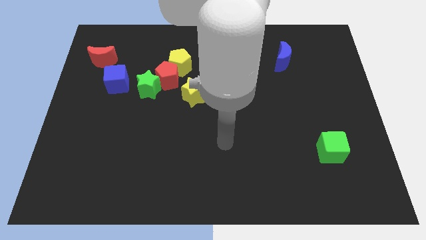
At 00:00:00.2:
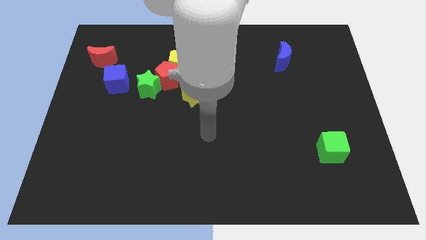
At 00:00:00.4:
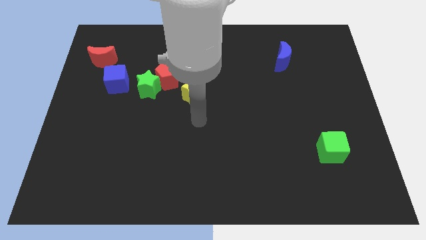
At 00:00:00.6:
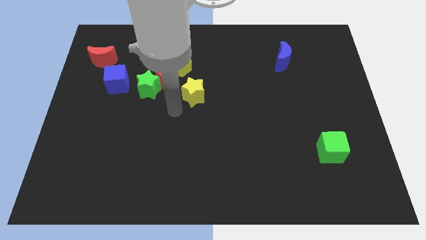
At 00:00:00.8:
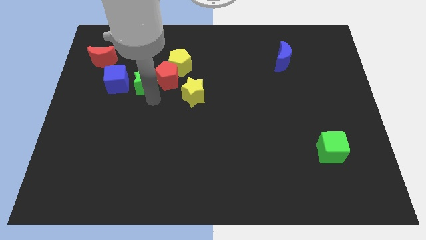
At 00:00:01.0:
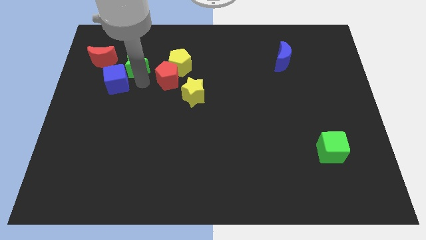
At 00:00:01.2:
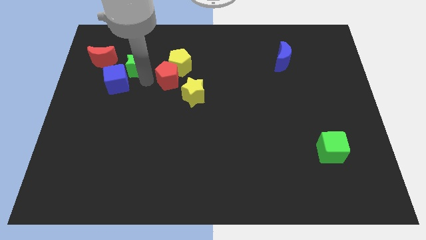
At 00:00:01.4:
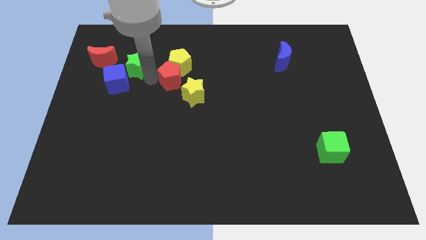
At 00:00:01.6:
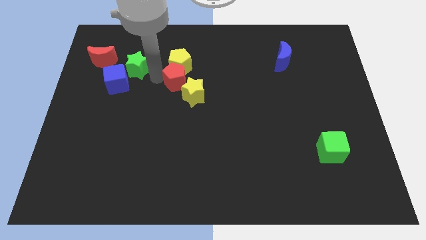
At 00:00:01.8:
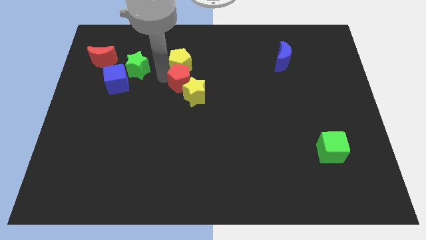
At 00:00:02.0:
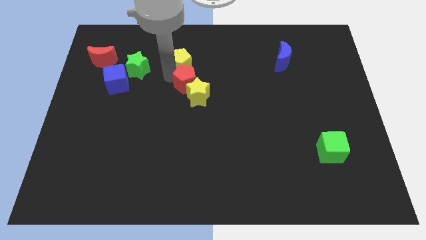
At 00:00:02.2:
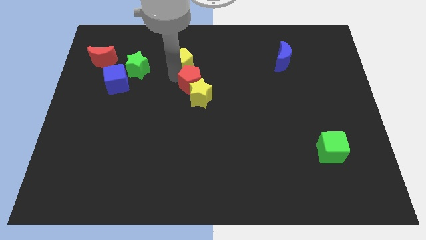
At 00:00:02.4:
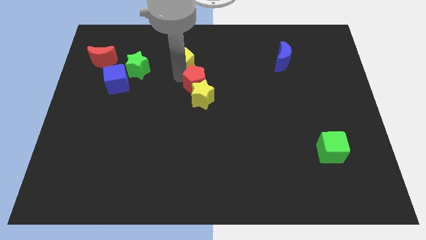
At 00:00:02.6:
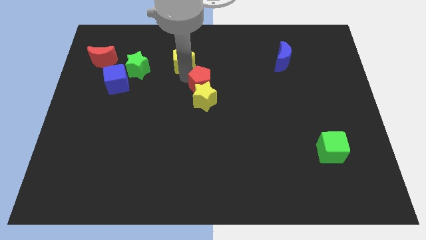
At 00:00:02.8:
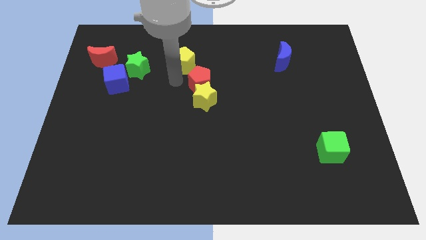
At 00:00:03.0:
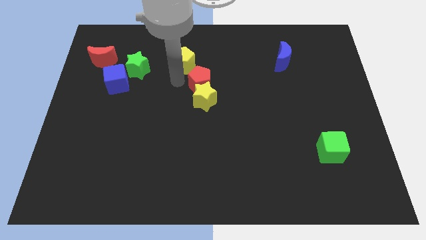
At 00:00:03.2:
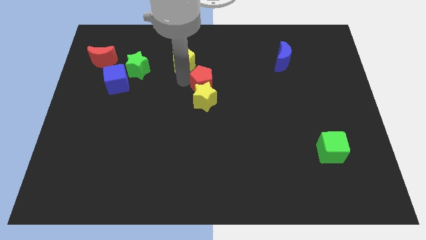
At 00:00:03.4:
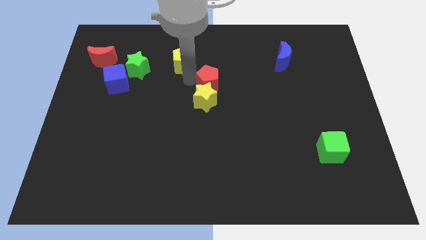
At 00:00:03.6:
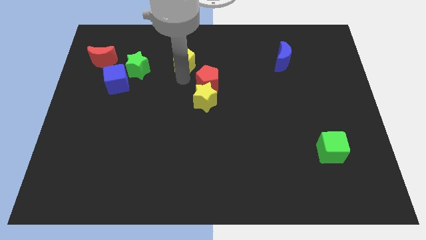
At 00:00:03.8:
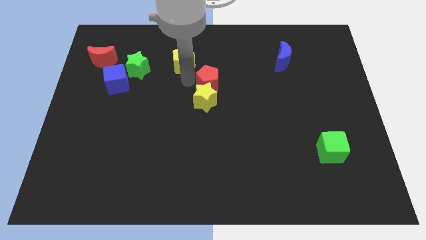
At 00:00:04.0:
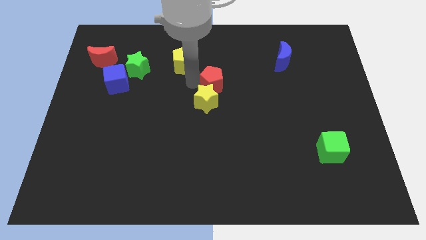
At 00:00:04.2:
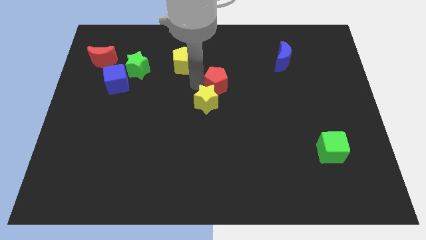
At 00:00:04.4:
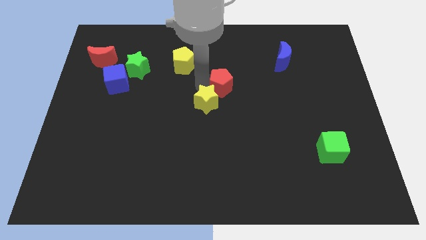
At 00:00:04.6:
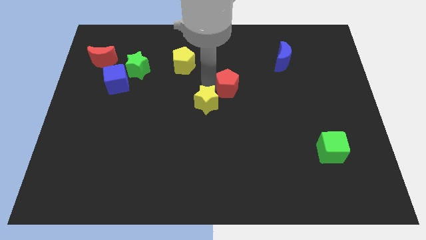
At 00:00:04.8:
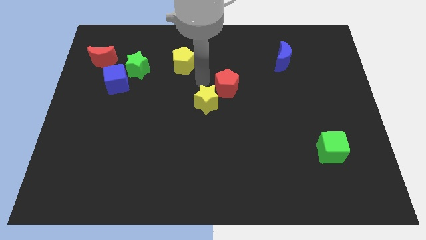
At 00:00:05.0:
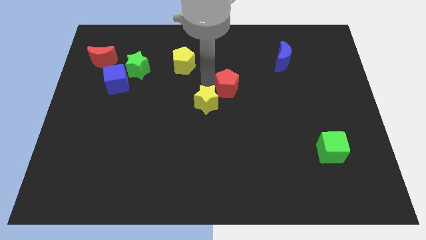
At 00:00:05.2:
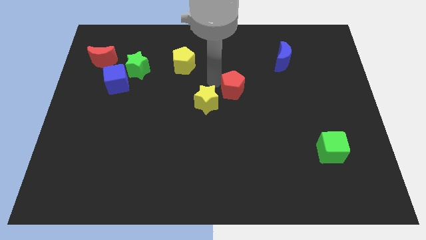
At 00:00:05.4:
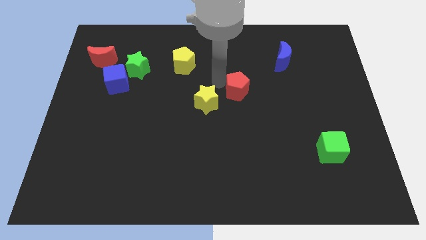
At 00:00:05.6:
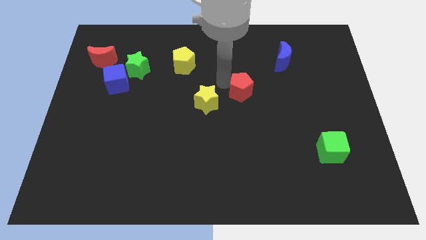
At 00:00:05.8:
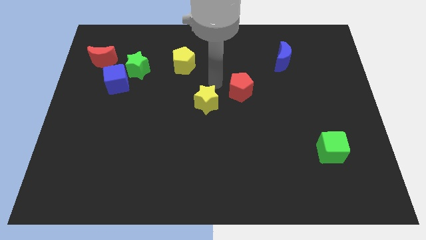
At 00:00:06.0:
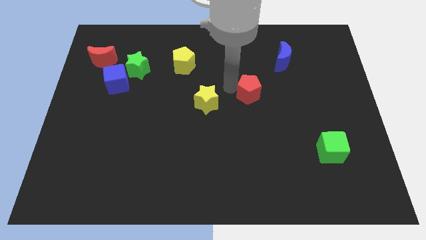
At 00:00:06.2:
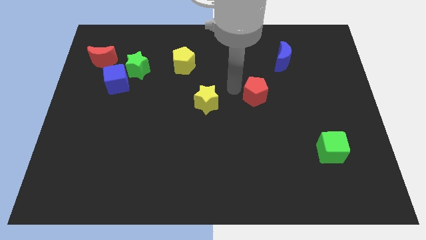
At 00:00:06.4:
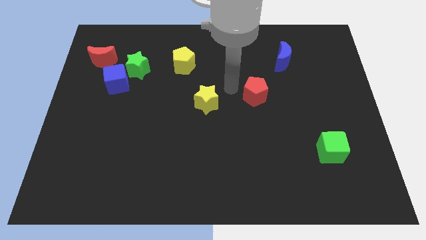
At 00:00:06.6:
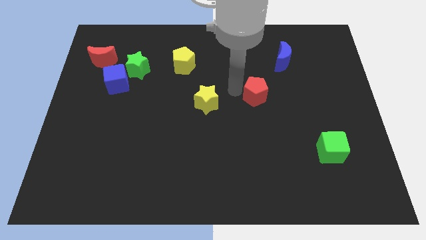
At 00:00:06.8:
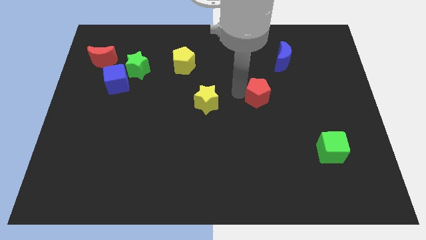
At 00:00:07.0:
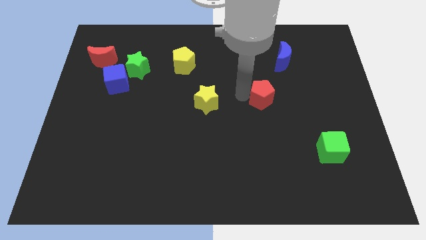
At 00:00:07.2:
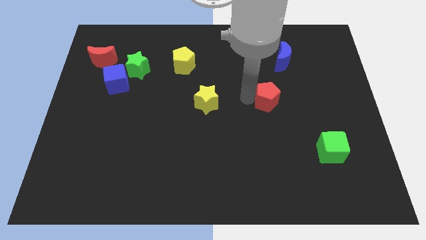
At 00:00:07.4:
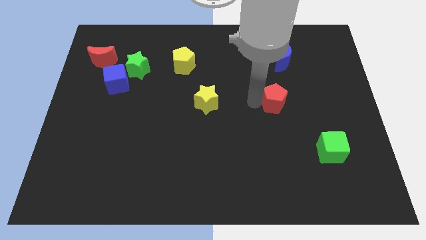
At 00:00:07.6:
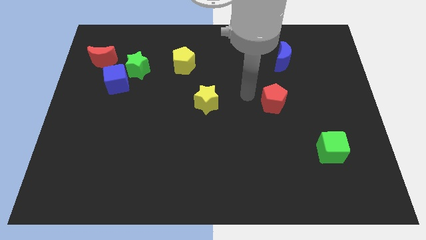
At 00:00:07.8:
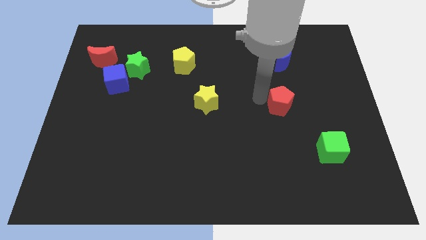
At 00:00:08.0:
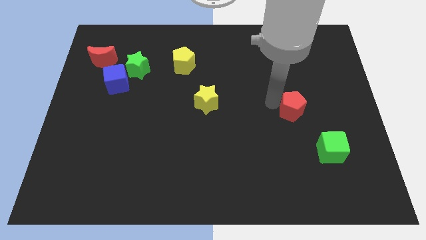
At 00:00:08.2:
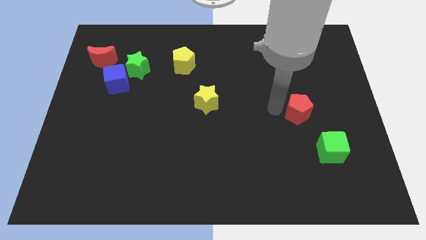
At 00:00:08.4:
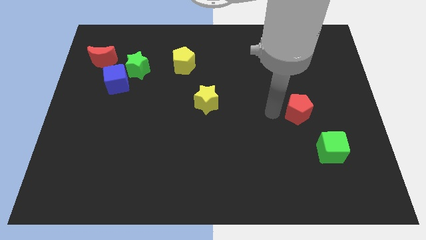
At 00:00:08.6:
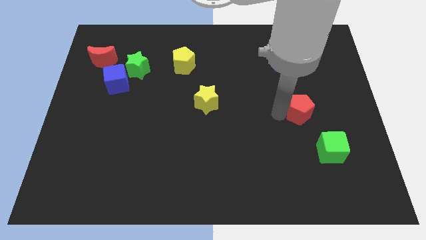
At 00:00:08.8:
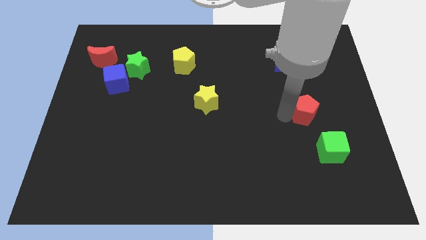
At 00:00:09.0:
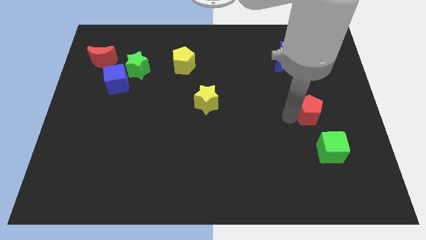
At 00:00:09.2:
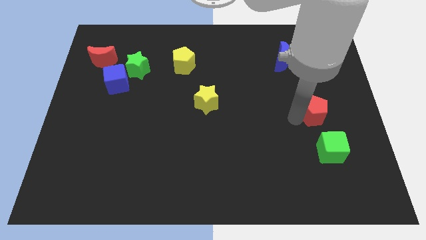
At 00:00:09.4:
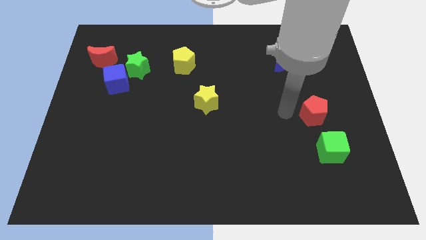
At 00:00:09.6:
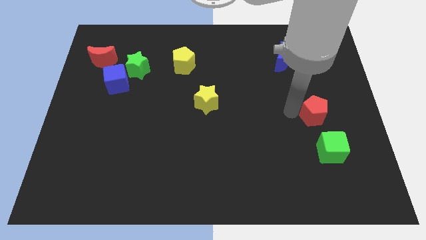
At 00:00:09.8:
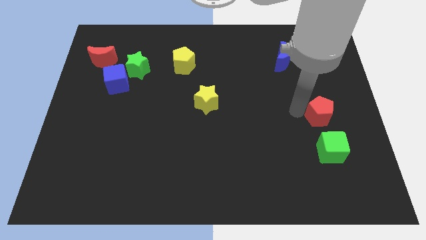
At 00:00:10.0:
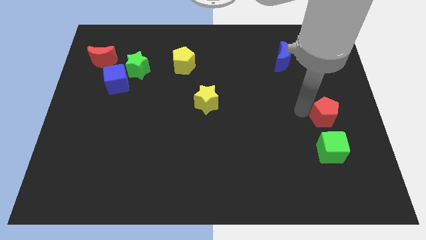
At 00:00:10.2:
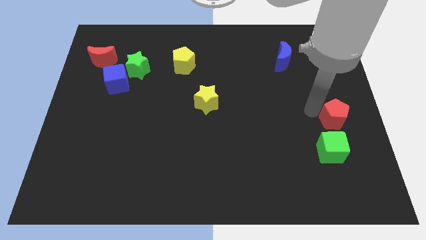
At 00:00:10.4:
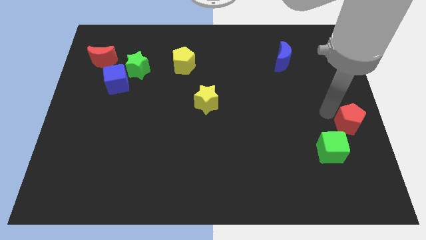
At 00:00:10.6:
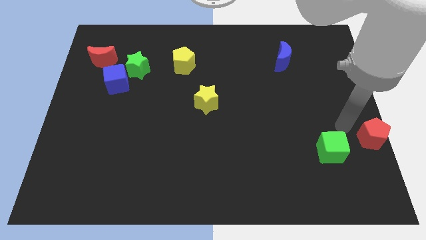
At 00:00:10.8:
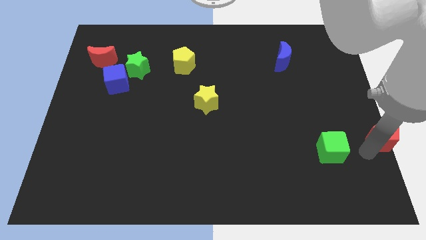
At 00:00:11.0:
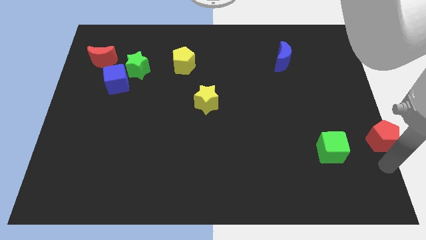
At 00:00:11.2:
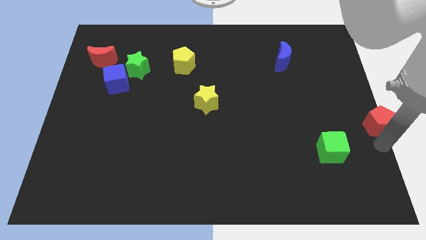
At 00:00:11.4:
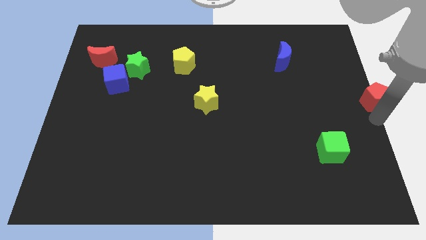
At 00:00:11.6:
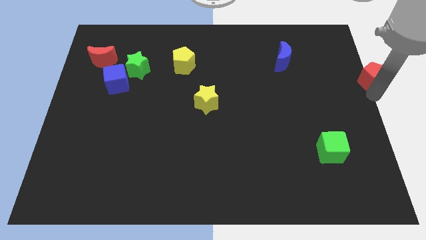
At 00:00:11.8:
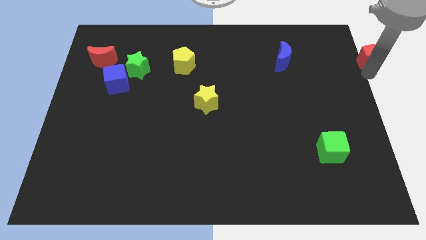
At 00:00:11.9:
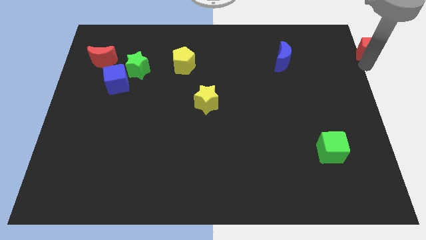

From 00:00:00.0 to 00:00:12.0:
put the red pentagon to the upper right corner

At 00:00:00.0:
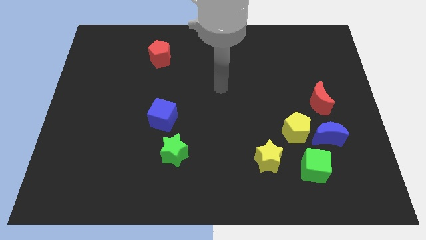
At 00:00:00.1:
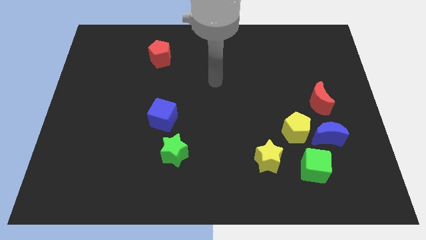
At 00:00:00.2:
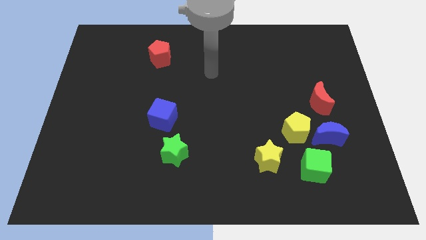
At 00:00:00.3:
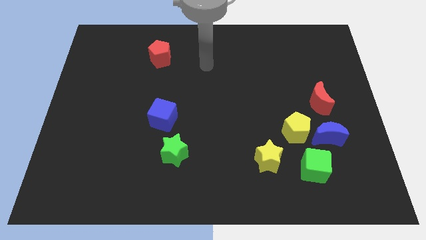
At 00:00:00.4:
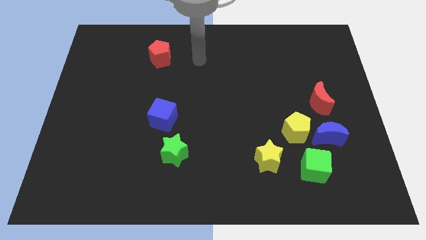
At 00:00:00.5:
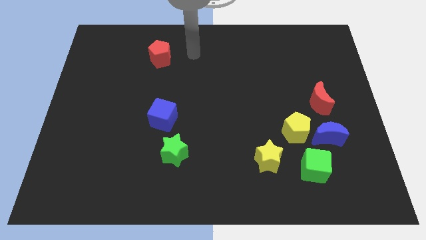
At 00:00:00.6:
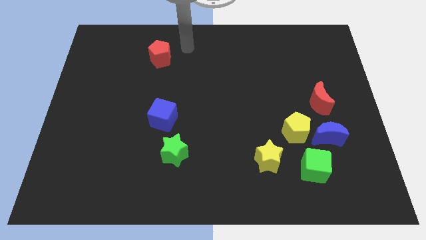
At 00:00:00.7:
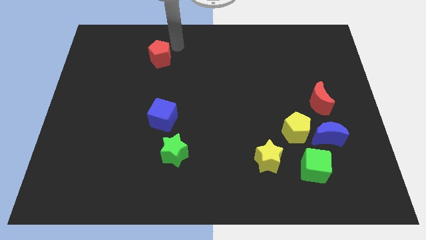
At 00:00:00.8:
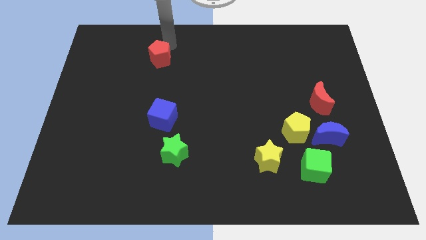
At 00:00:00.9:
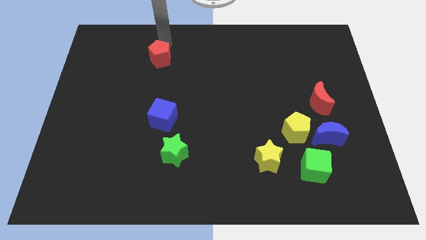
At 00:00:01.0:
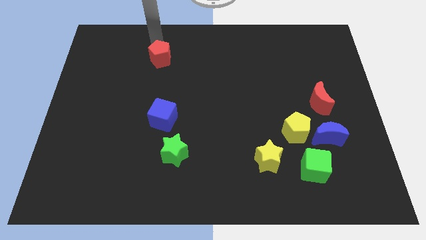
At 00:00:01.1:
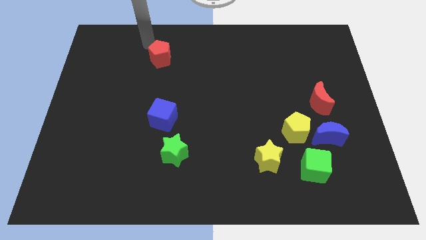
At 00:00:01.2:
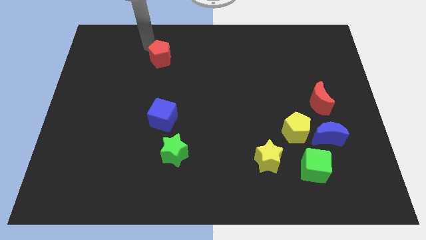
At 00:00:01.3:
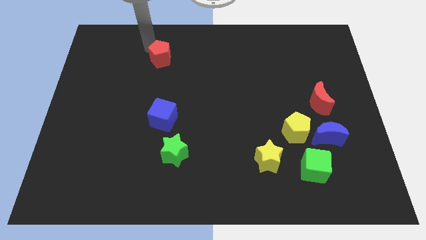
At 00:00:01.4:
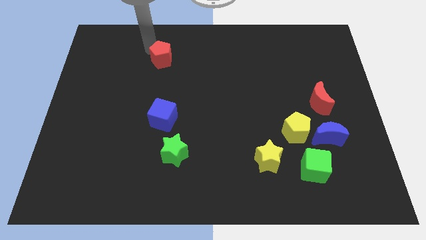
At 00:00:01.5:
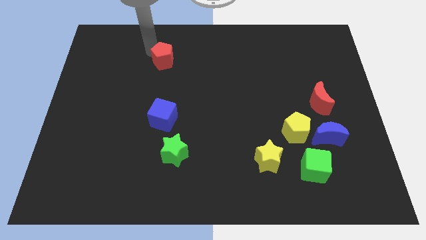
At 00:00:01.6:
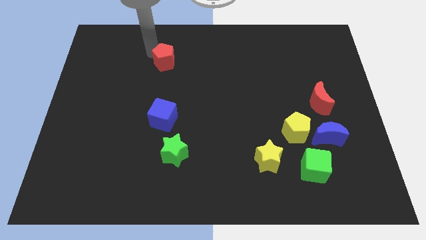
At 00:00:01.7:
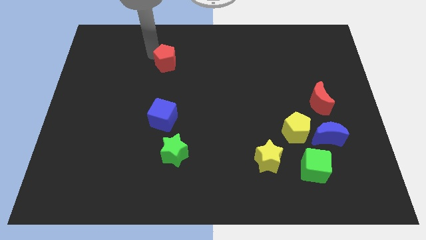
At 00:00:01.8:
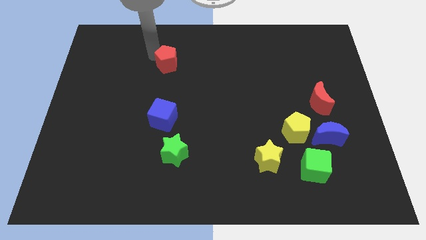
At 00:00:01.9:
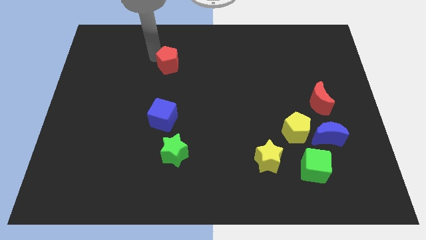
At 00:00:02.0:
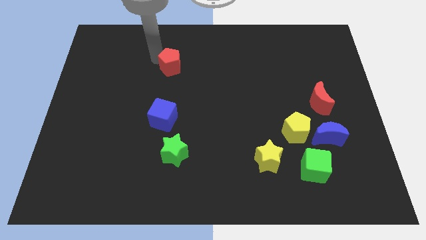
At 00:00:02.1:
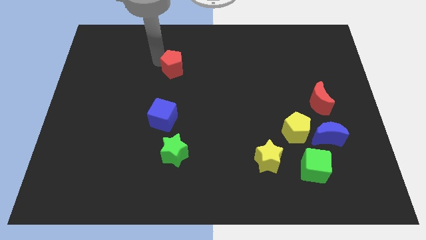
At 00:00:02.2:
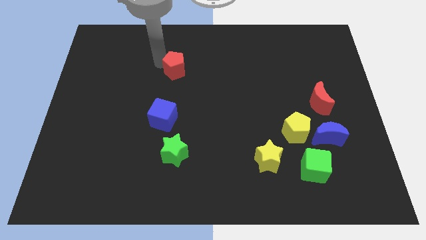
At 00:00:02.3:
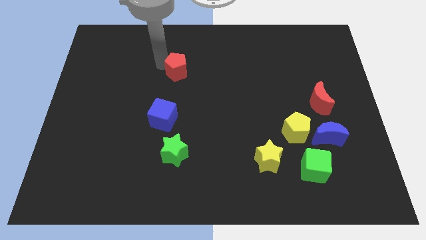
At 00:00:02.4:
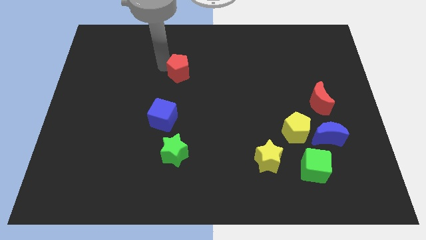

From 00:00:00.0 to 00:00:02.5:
push the red pentagon to the middle
